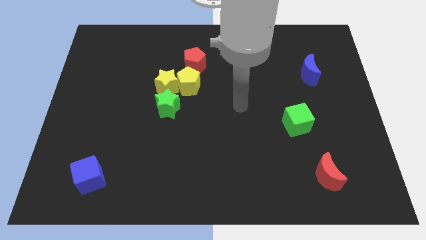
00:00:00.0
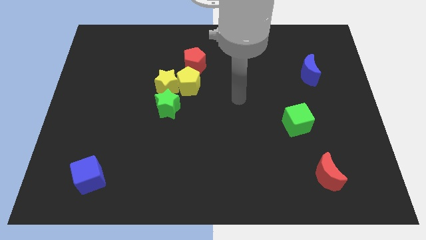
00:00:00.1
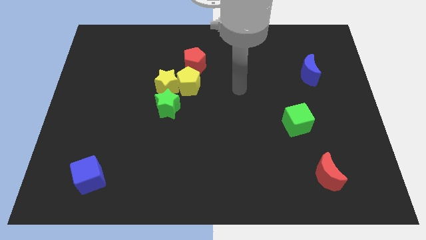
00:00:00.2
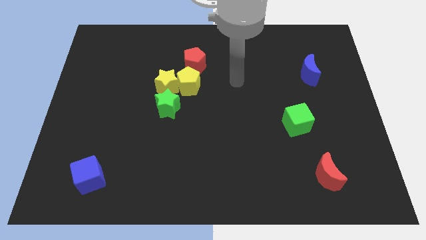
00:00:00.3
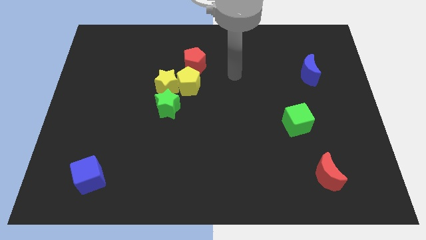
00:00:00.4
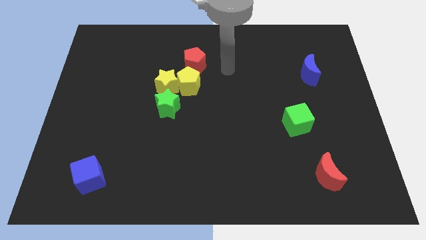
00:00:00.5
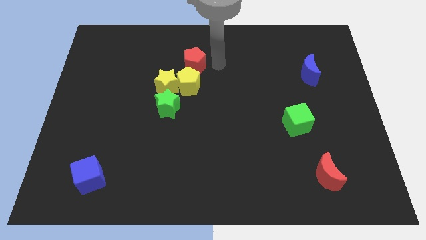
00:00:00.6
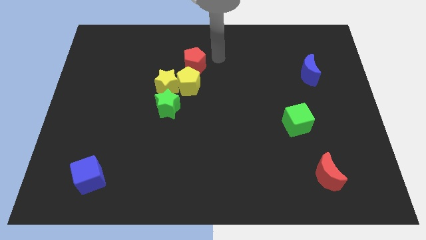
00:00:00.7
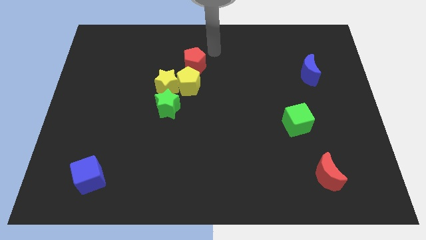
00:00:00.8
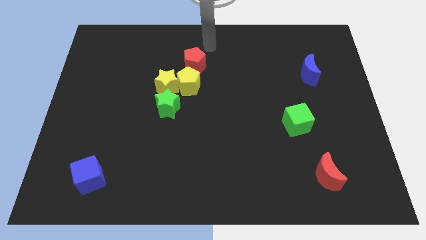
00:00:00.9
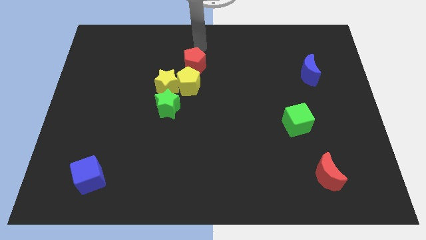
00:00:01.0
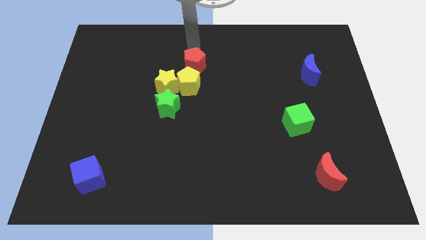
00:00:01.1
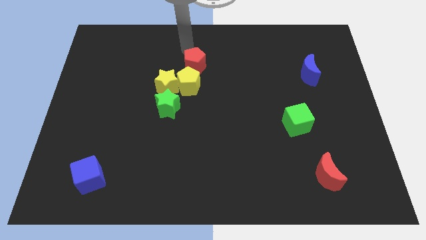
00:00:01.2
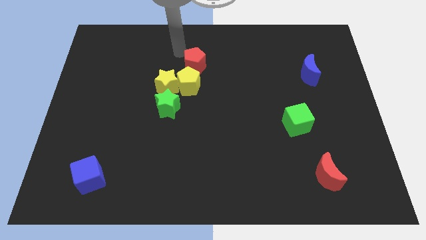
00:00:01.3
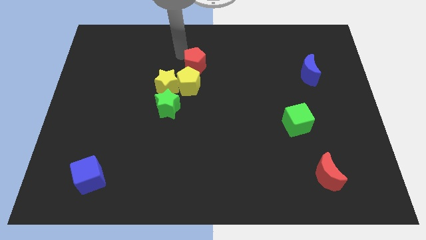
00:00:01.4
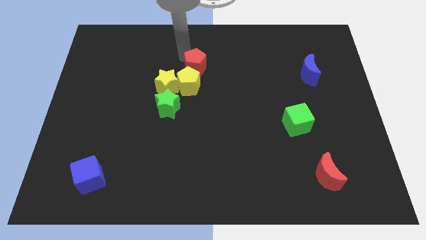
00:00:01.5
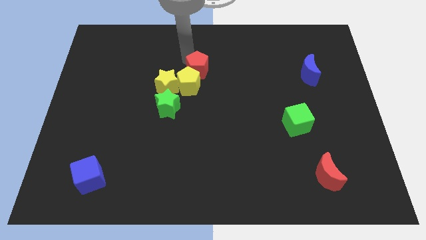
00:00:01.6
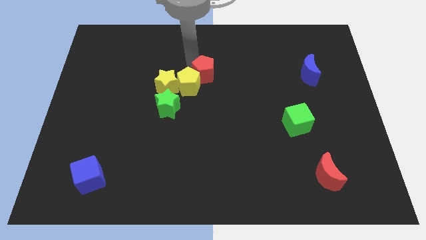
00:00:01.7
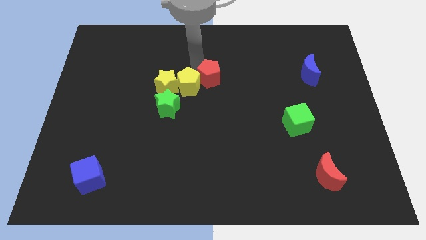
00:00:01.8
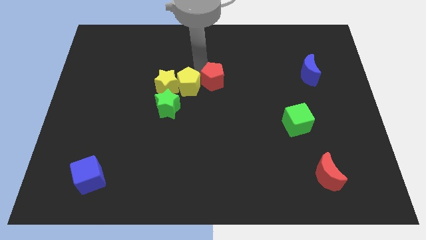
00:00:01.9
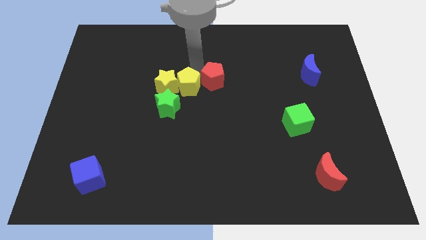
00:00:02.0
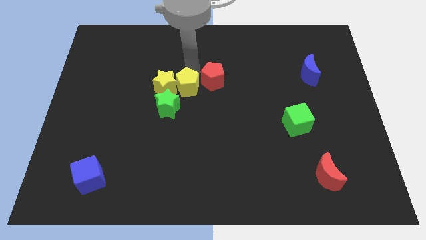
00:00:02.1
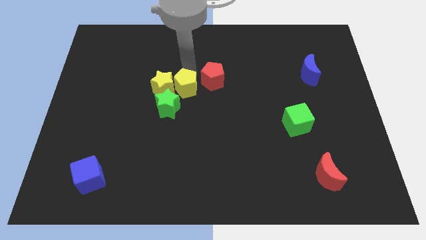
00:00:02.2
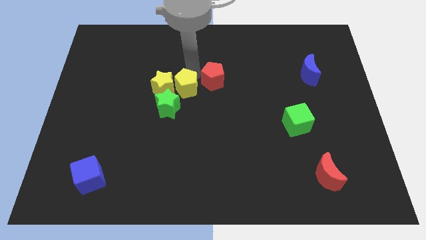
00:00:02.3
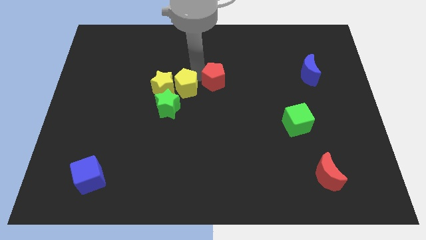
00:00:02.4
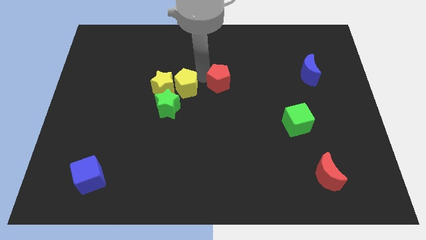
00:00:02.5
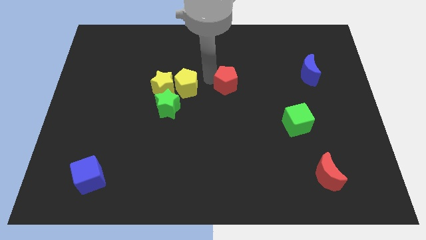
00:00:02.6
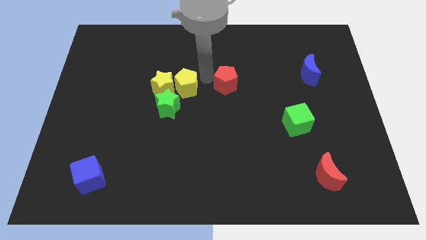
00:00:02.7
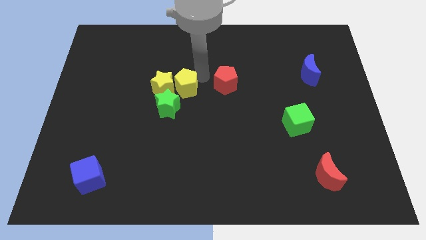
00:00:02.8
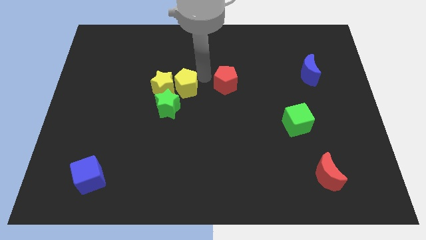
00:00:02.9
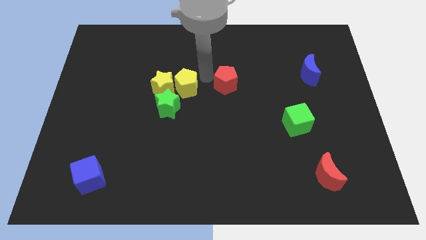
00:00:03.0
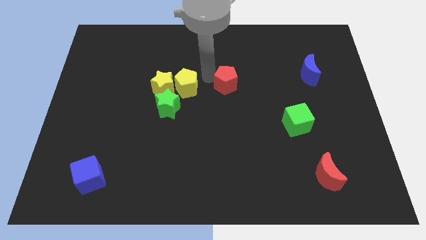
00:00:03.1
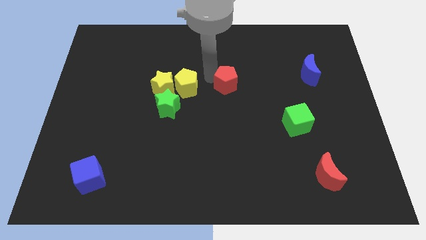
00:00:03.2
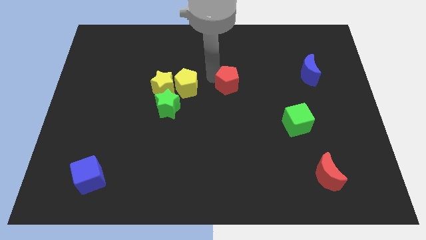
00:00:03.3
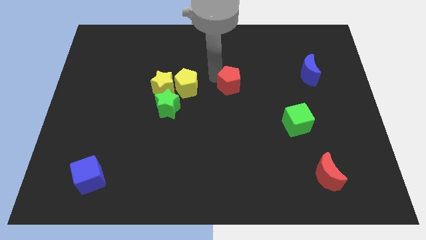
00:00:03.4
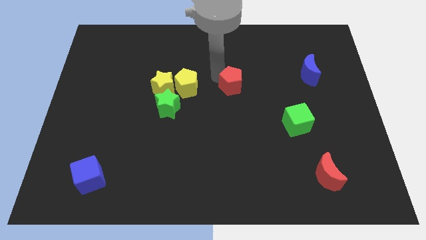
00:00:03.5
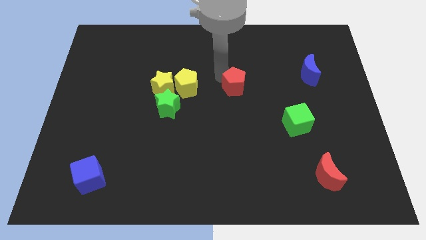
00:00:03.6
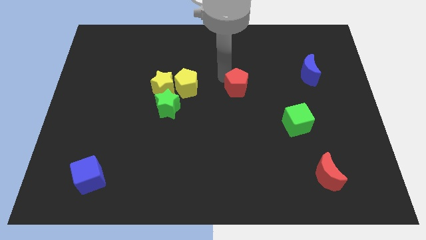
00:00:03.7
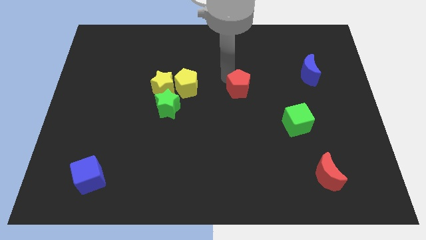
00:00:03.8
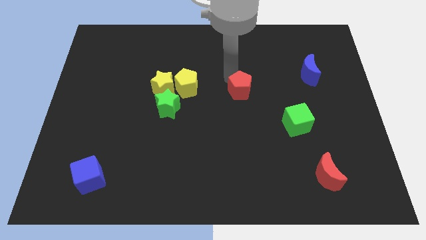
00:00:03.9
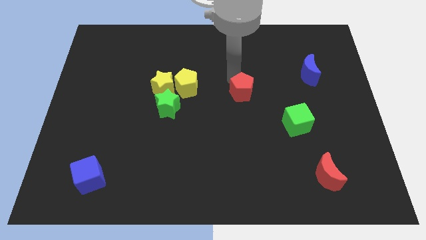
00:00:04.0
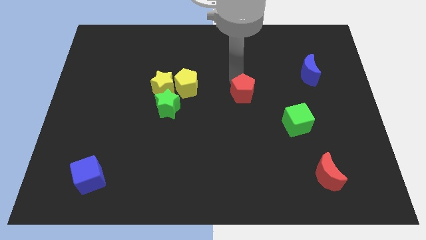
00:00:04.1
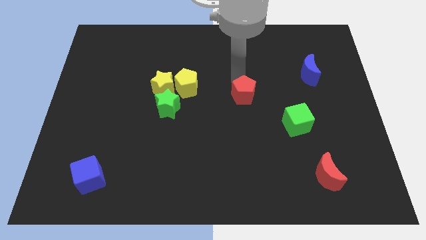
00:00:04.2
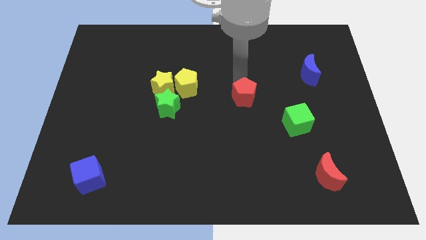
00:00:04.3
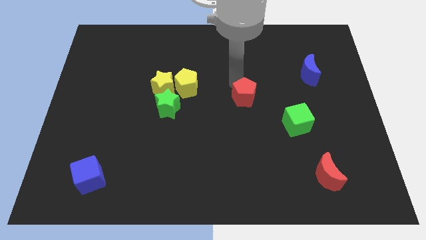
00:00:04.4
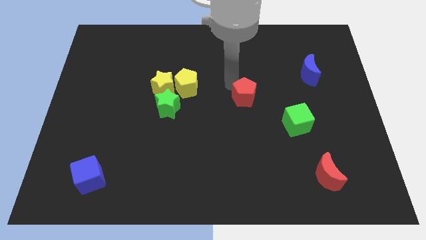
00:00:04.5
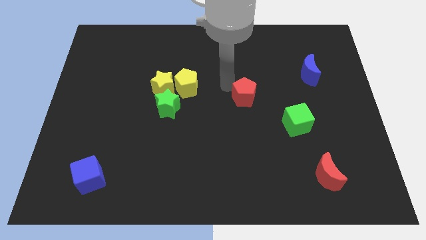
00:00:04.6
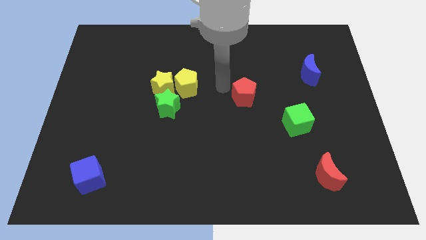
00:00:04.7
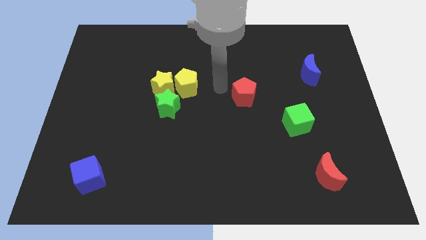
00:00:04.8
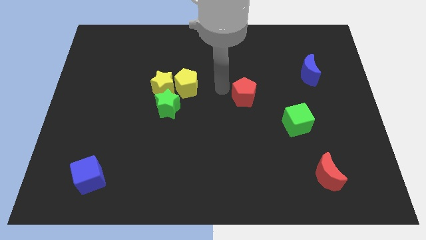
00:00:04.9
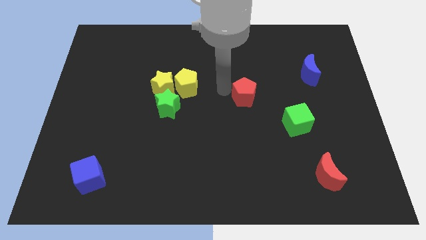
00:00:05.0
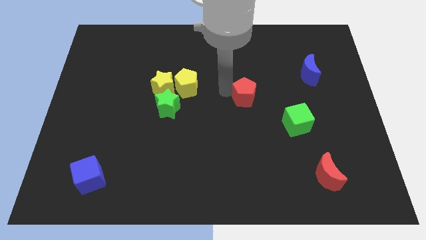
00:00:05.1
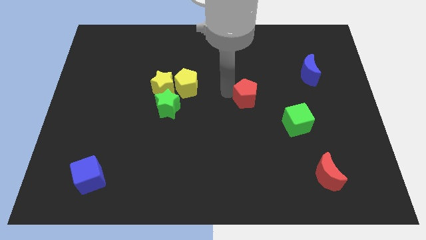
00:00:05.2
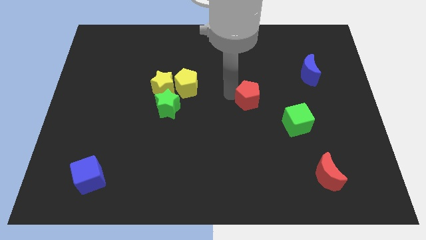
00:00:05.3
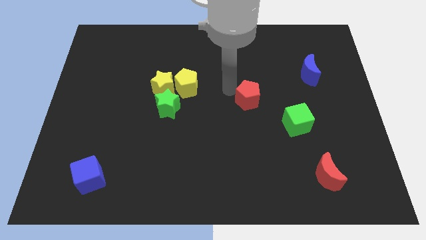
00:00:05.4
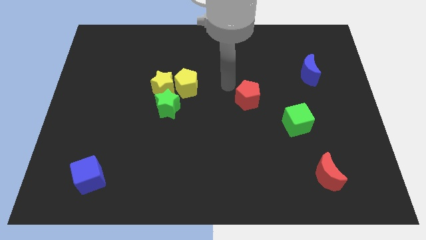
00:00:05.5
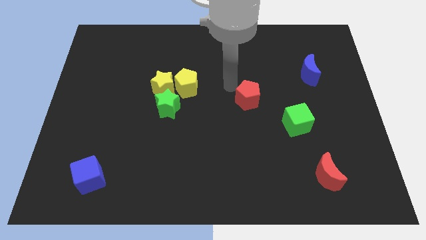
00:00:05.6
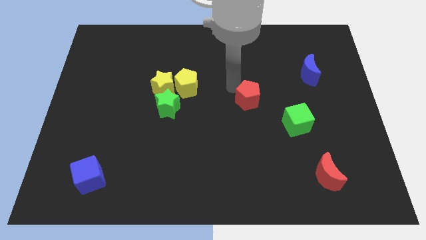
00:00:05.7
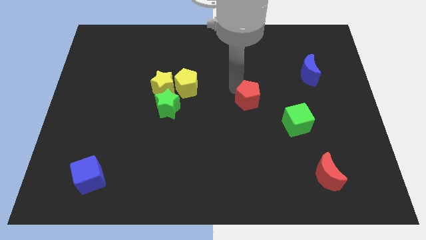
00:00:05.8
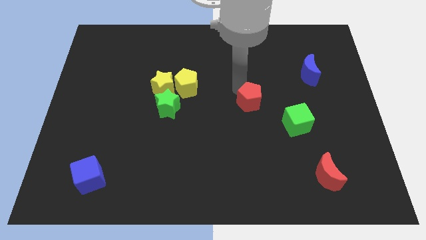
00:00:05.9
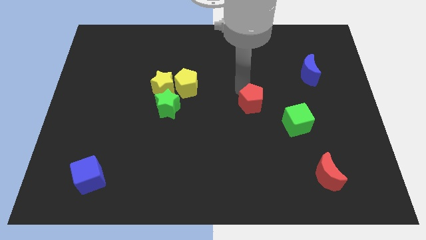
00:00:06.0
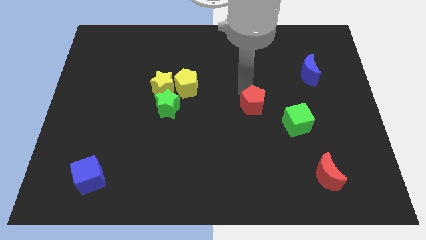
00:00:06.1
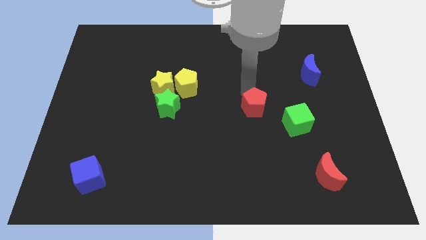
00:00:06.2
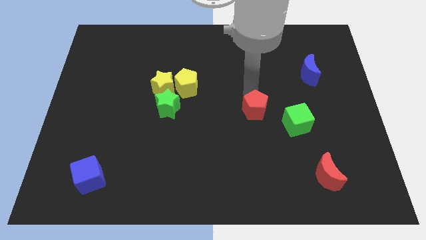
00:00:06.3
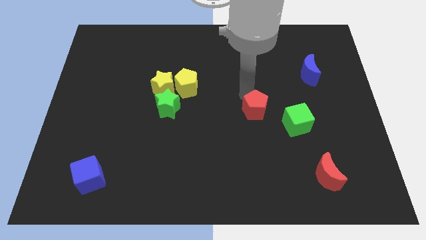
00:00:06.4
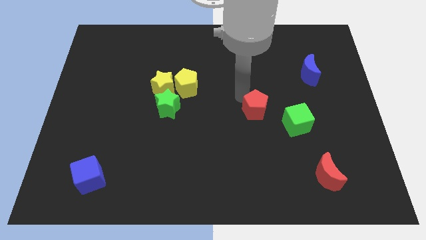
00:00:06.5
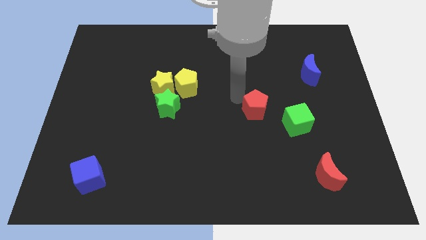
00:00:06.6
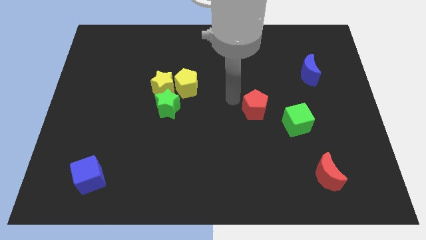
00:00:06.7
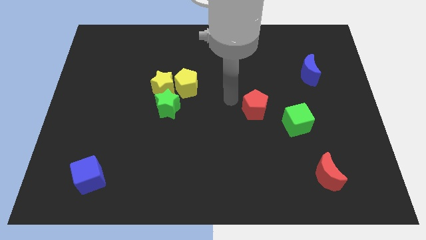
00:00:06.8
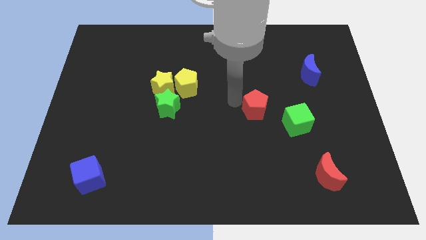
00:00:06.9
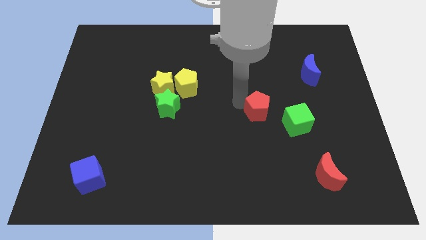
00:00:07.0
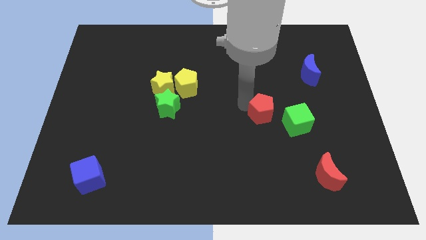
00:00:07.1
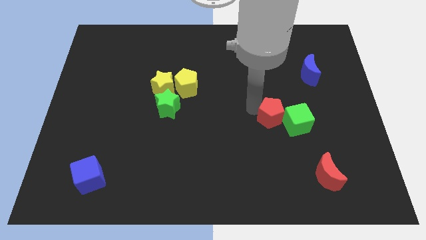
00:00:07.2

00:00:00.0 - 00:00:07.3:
put the red pentagon close to the green cube
